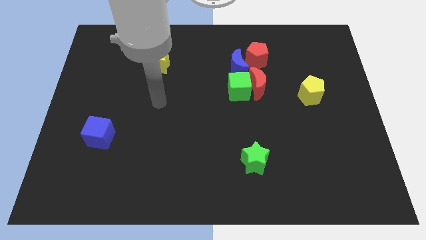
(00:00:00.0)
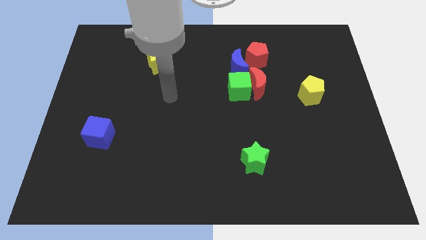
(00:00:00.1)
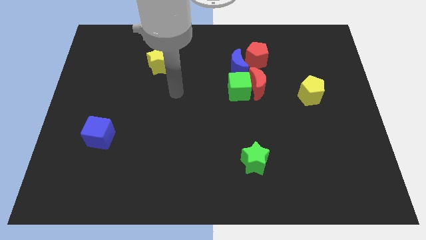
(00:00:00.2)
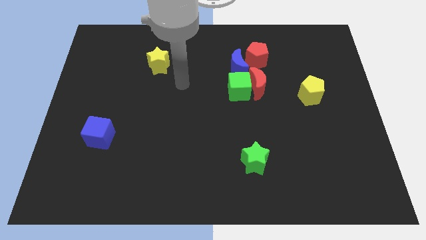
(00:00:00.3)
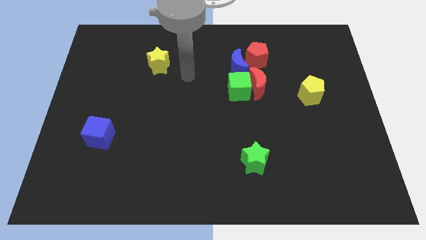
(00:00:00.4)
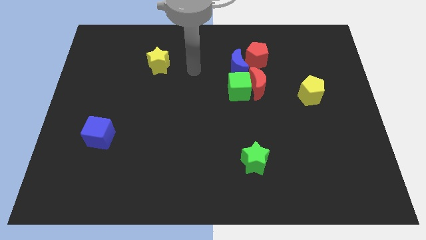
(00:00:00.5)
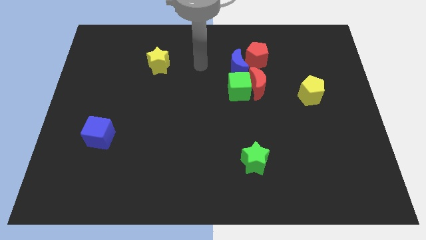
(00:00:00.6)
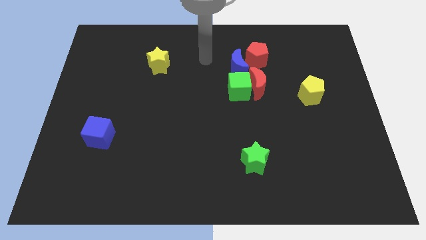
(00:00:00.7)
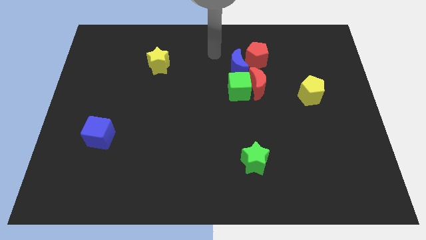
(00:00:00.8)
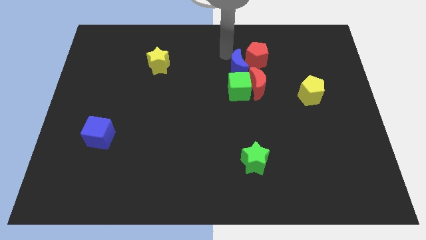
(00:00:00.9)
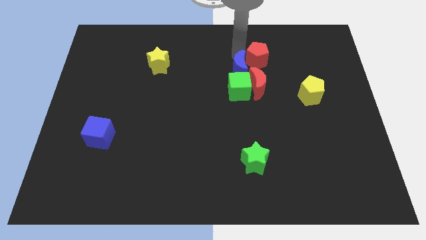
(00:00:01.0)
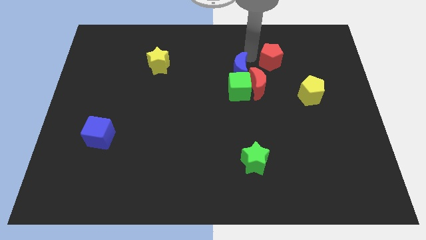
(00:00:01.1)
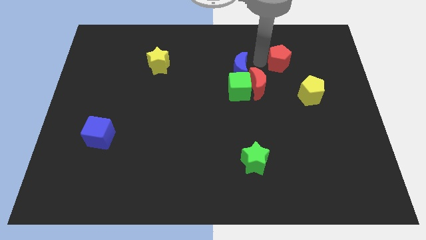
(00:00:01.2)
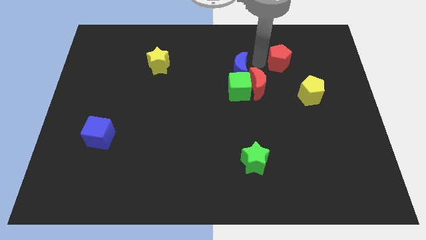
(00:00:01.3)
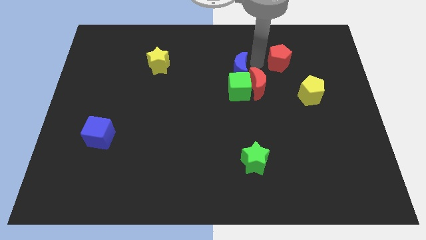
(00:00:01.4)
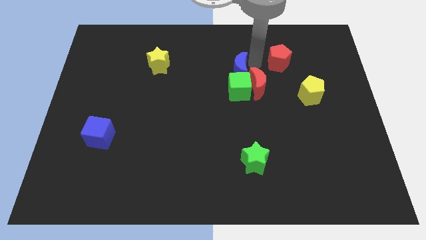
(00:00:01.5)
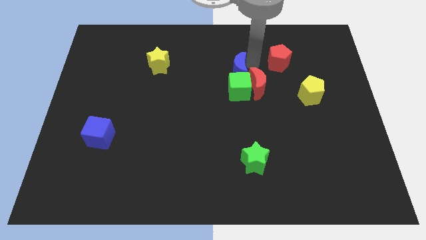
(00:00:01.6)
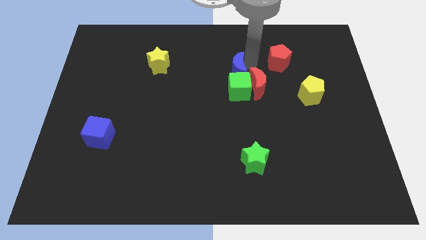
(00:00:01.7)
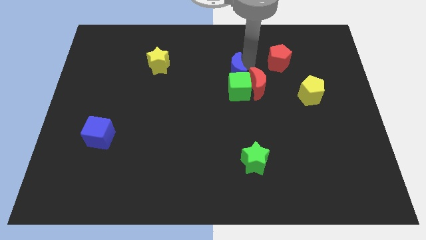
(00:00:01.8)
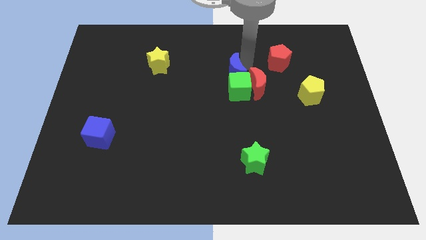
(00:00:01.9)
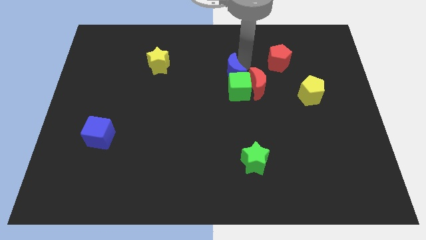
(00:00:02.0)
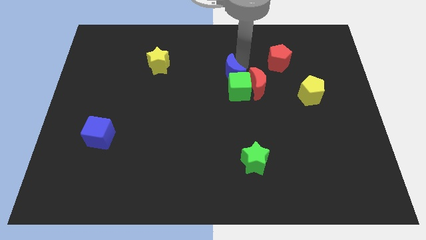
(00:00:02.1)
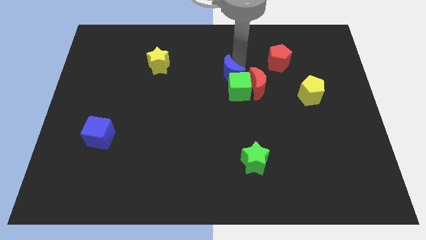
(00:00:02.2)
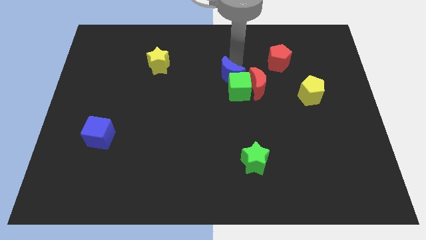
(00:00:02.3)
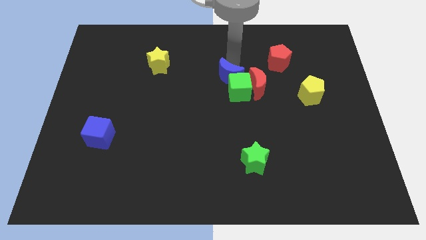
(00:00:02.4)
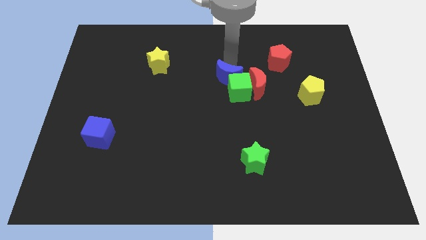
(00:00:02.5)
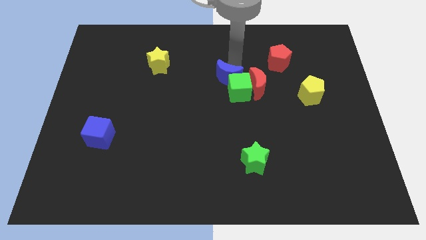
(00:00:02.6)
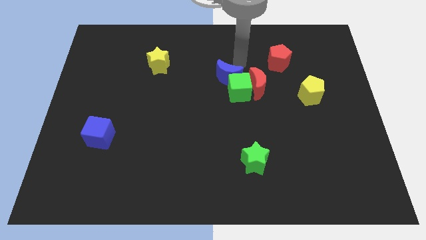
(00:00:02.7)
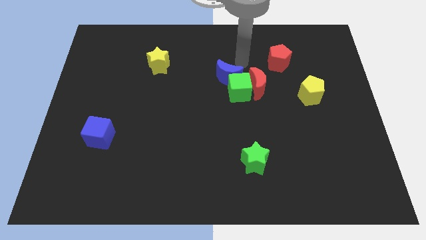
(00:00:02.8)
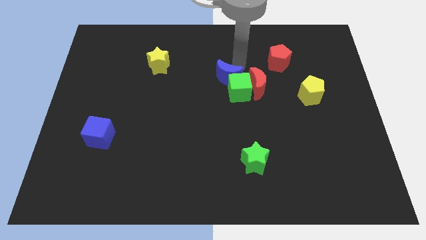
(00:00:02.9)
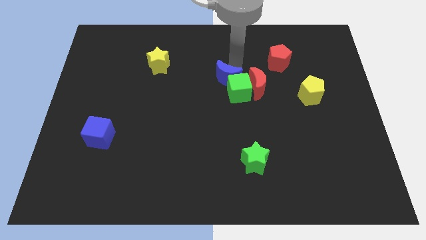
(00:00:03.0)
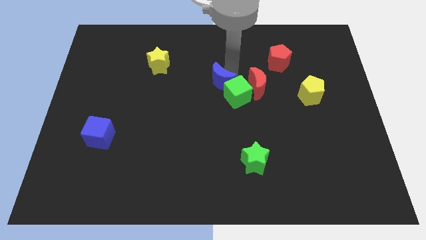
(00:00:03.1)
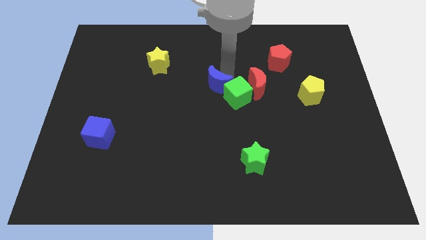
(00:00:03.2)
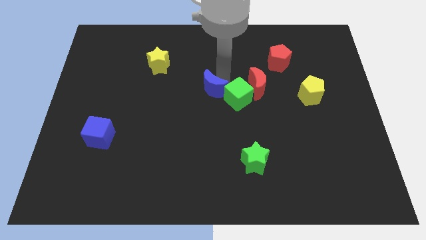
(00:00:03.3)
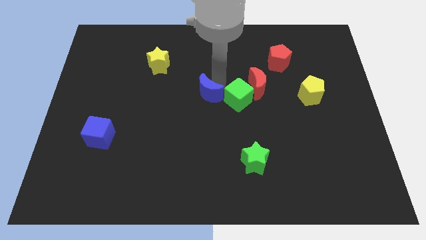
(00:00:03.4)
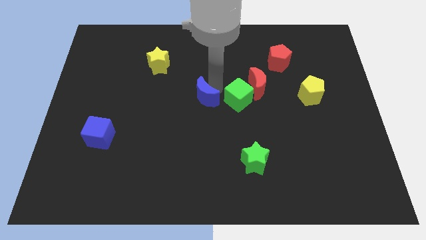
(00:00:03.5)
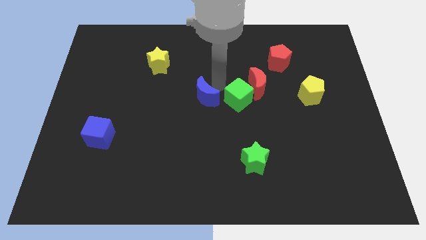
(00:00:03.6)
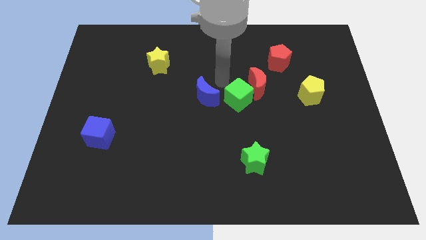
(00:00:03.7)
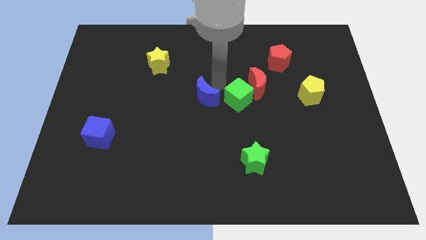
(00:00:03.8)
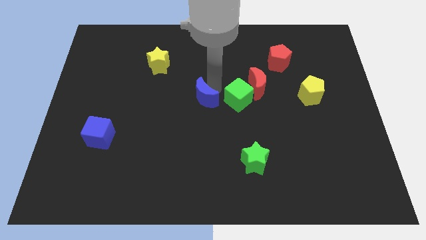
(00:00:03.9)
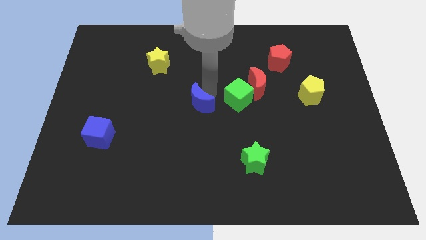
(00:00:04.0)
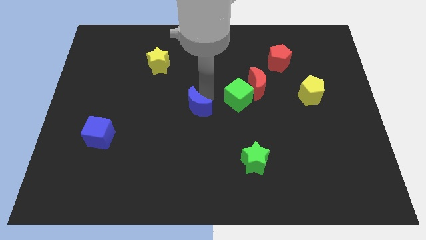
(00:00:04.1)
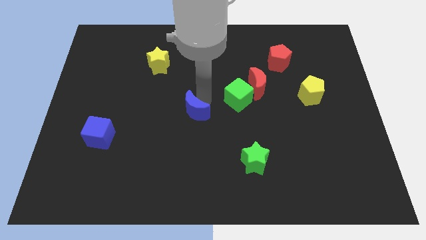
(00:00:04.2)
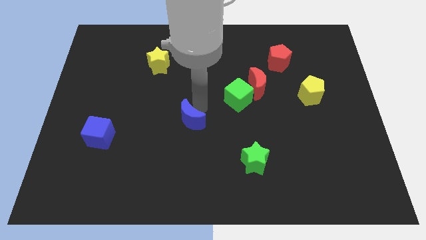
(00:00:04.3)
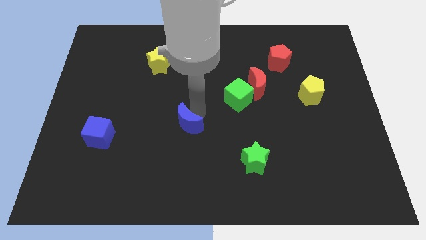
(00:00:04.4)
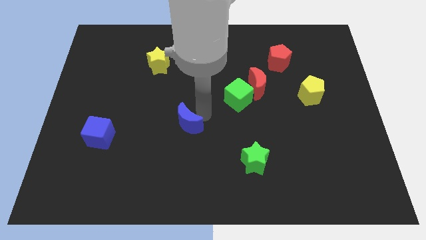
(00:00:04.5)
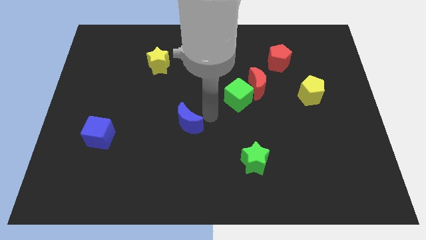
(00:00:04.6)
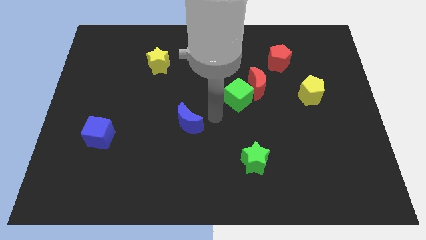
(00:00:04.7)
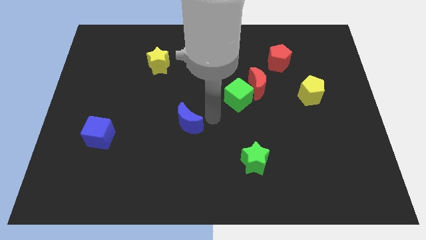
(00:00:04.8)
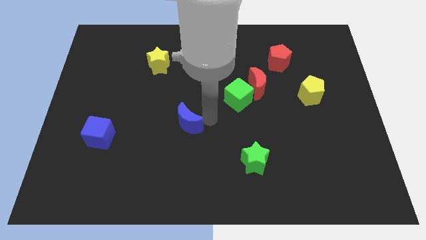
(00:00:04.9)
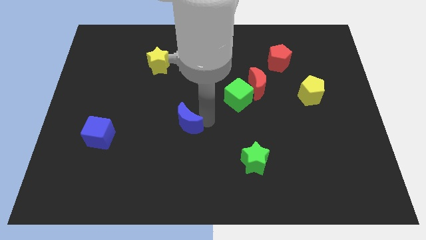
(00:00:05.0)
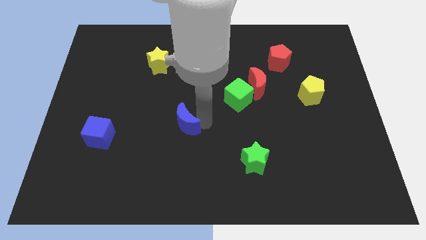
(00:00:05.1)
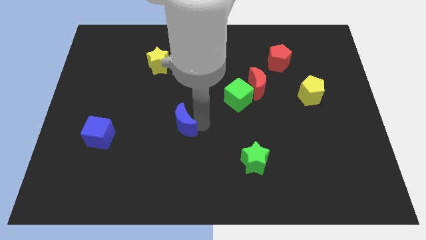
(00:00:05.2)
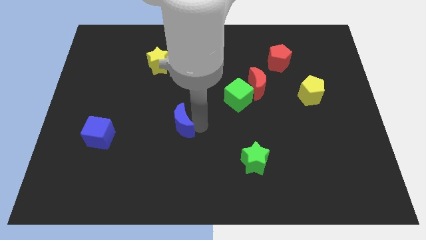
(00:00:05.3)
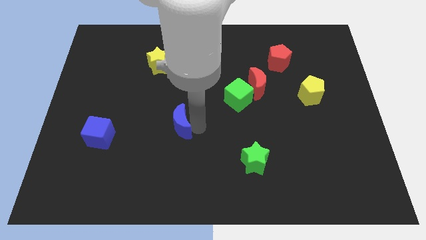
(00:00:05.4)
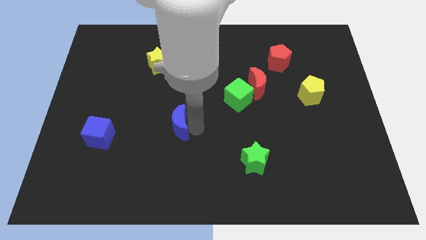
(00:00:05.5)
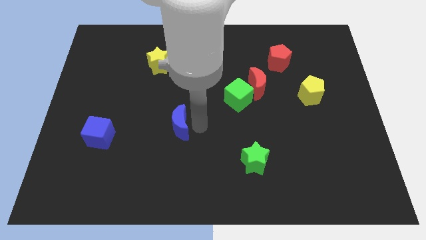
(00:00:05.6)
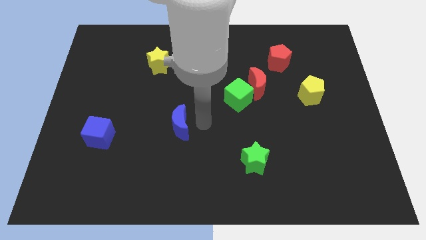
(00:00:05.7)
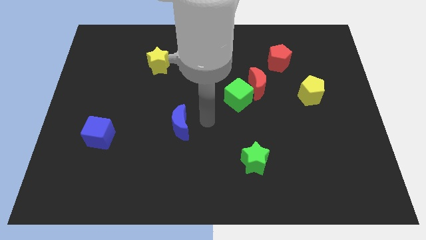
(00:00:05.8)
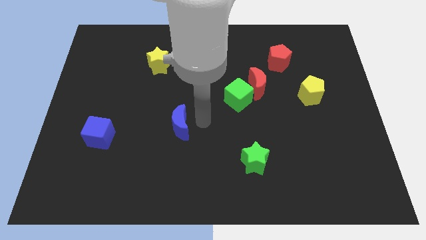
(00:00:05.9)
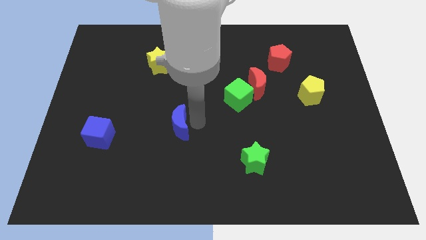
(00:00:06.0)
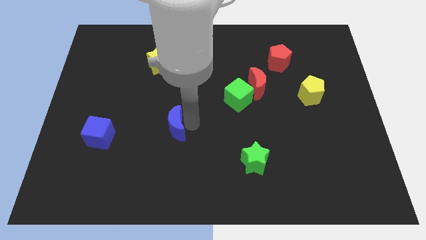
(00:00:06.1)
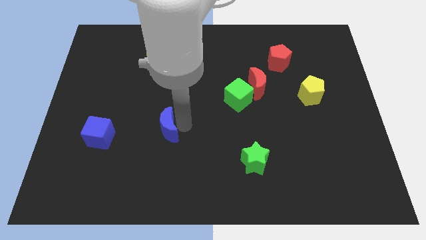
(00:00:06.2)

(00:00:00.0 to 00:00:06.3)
move the blue moon to the right of the blue cube
